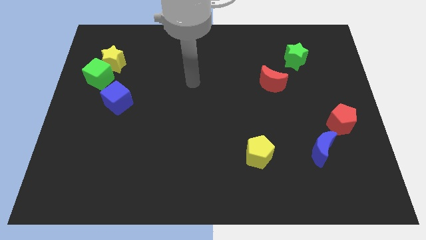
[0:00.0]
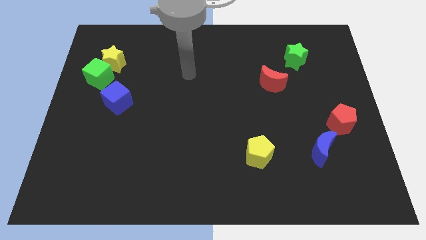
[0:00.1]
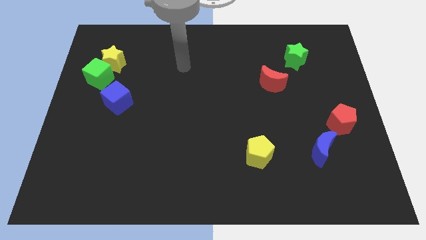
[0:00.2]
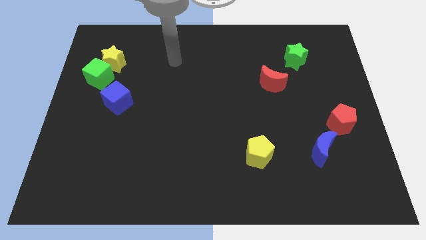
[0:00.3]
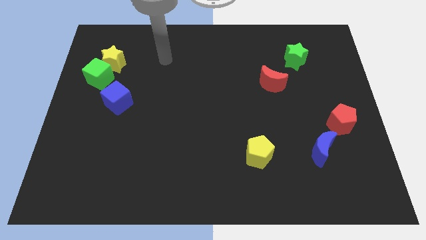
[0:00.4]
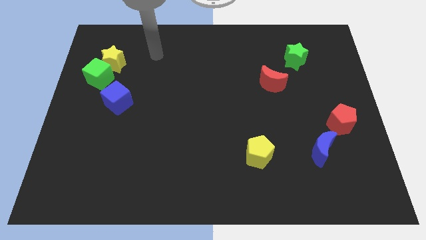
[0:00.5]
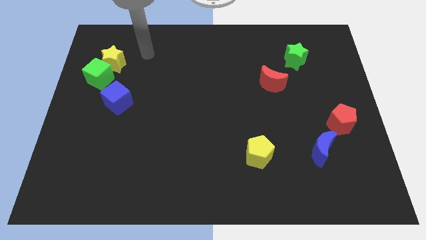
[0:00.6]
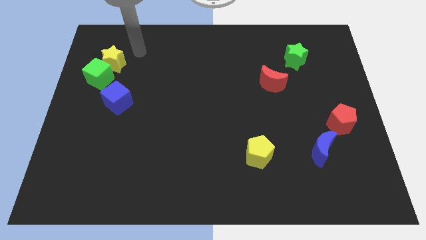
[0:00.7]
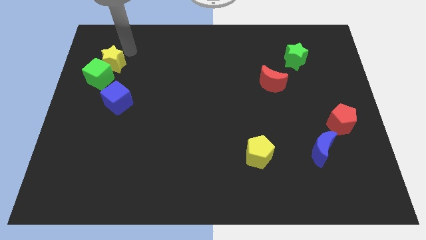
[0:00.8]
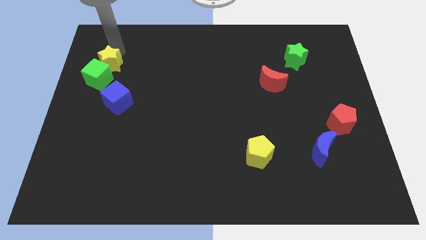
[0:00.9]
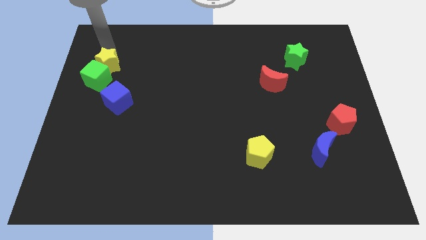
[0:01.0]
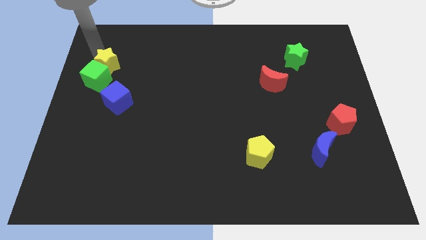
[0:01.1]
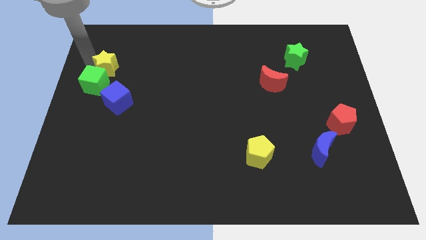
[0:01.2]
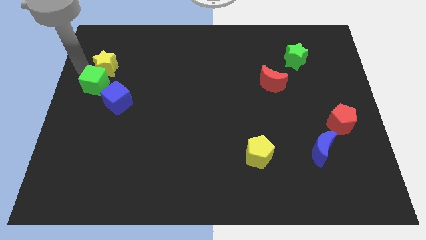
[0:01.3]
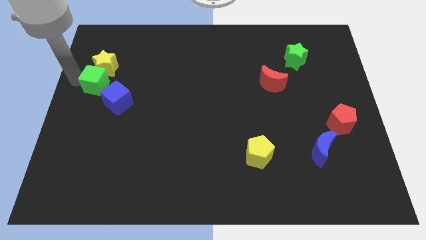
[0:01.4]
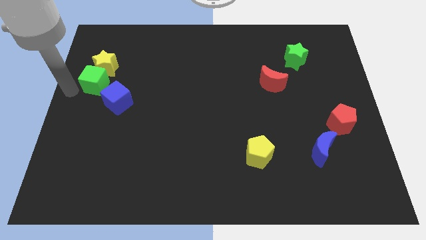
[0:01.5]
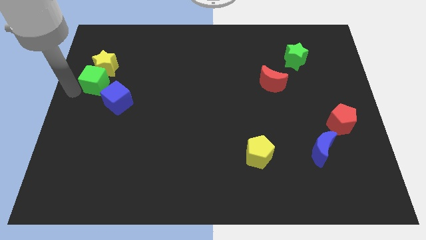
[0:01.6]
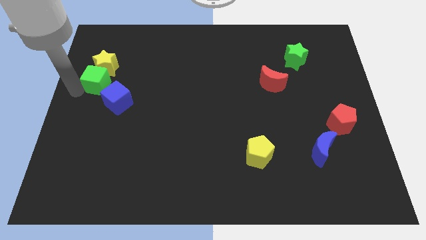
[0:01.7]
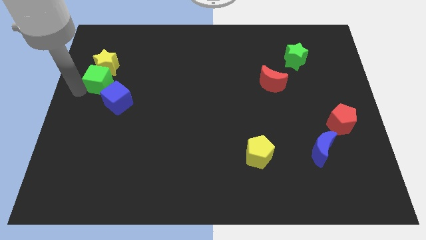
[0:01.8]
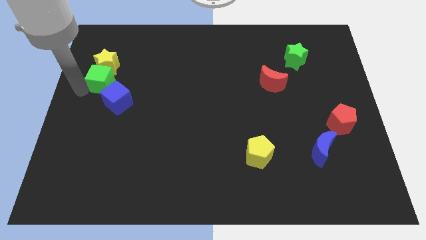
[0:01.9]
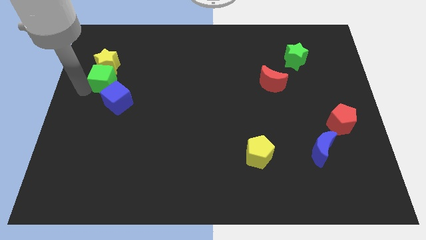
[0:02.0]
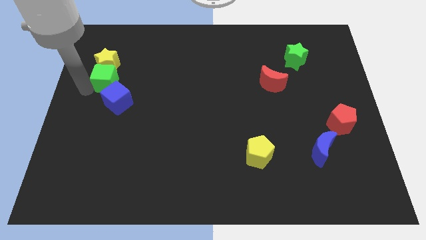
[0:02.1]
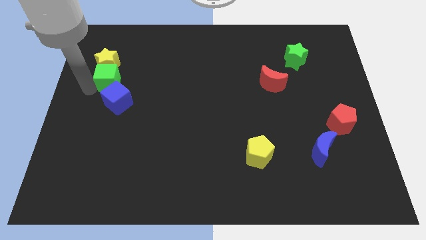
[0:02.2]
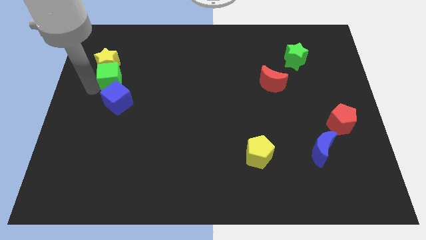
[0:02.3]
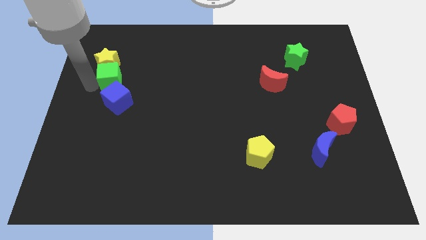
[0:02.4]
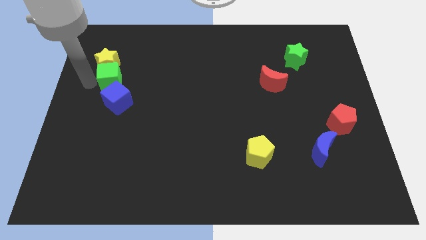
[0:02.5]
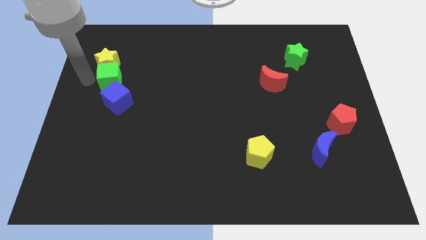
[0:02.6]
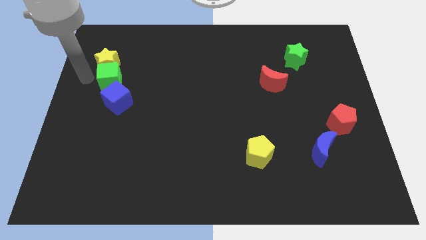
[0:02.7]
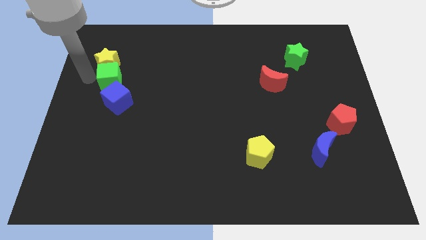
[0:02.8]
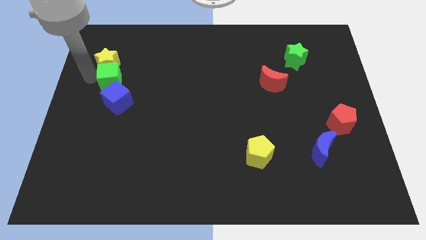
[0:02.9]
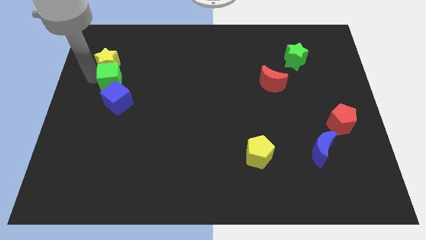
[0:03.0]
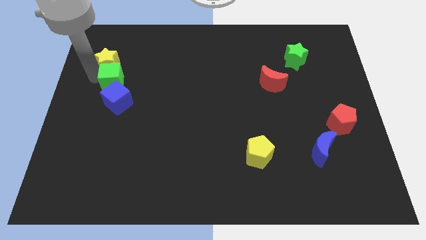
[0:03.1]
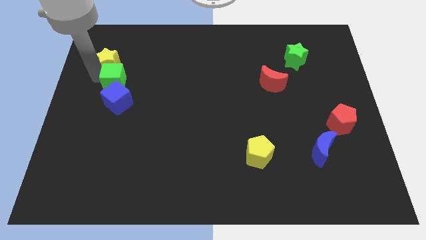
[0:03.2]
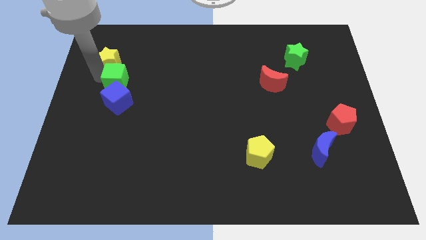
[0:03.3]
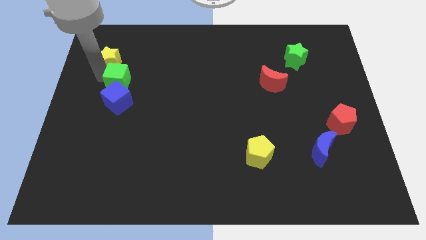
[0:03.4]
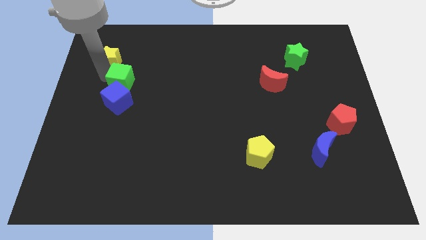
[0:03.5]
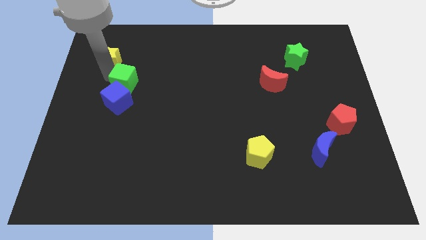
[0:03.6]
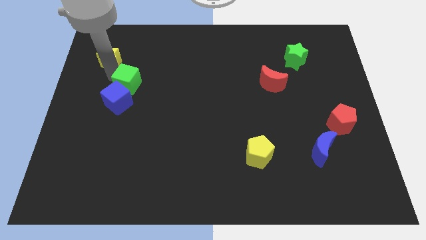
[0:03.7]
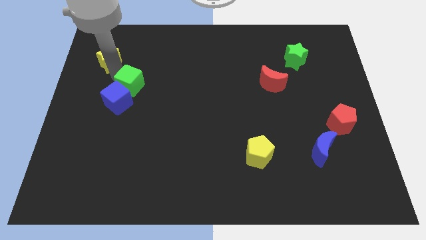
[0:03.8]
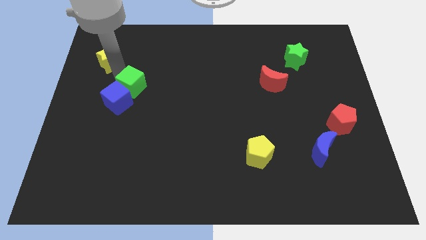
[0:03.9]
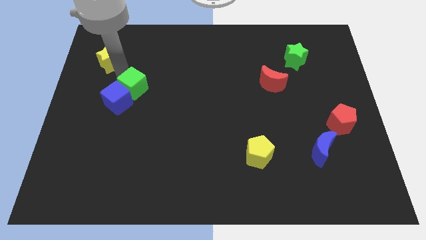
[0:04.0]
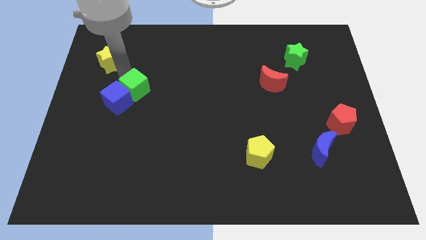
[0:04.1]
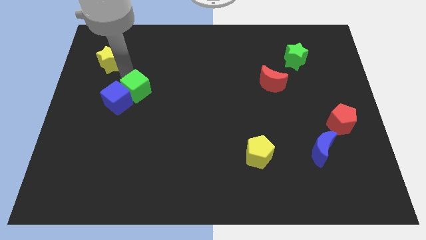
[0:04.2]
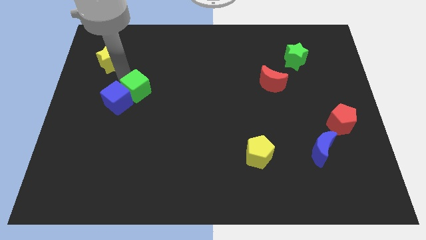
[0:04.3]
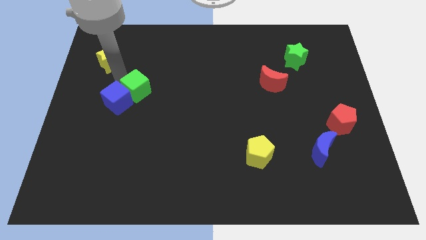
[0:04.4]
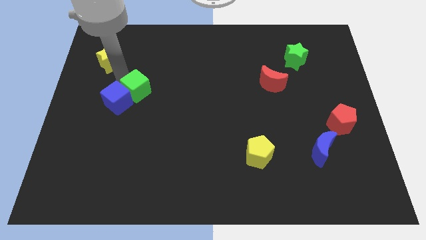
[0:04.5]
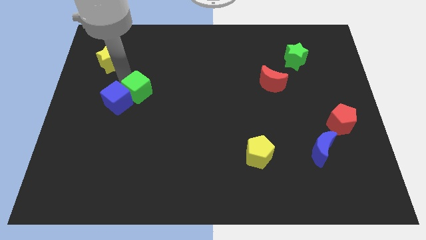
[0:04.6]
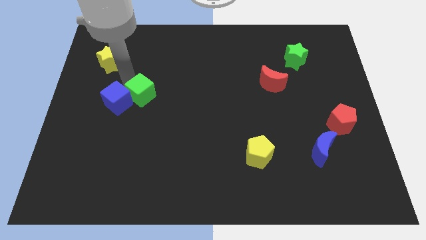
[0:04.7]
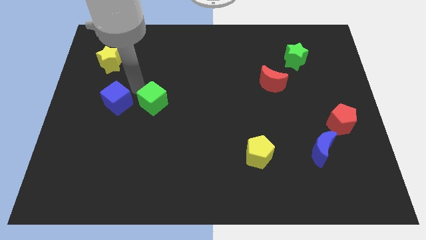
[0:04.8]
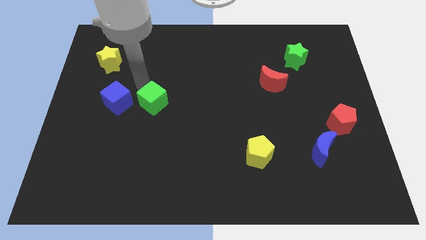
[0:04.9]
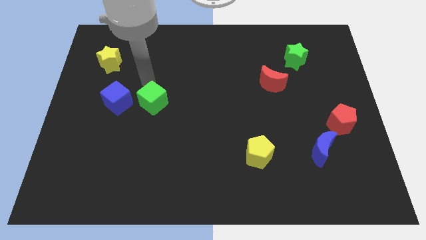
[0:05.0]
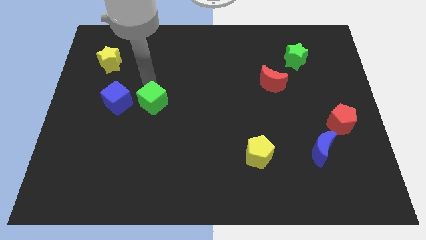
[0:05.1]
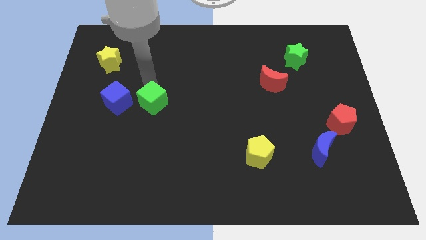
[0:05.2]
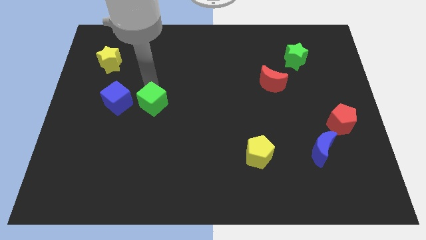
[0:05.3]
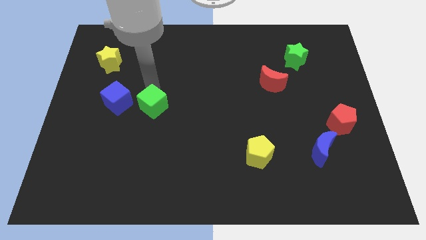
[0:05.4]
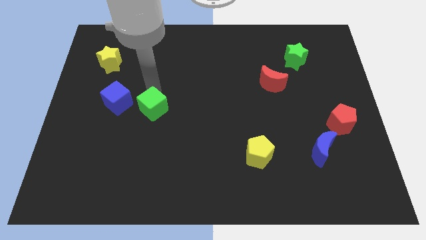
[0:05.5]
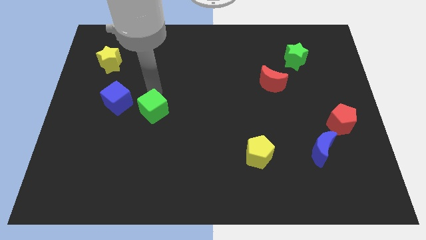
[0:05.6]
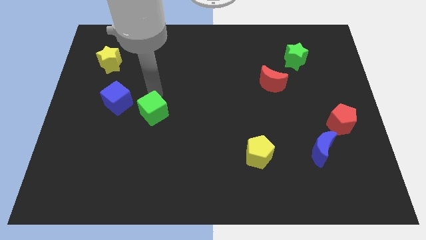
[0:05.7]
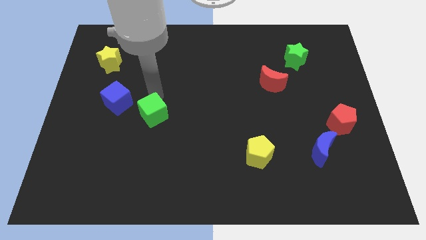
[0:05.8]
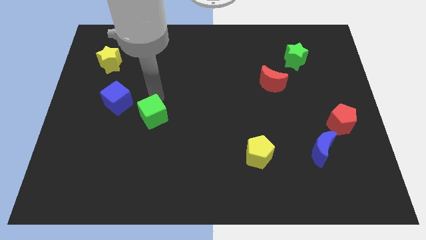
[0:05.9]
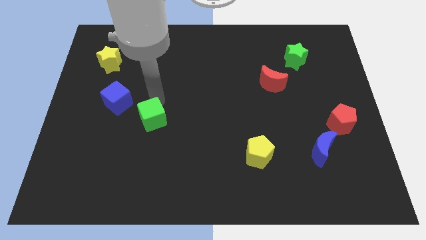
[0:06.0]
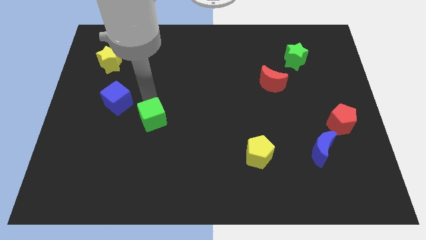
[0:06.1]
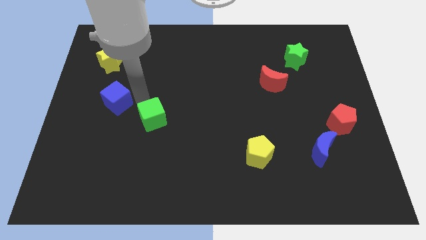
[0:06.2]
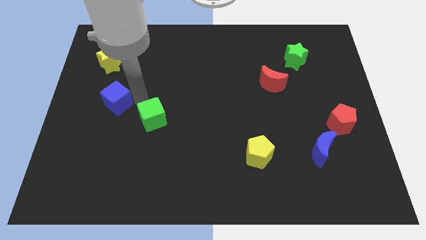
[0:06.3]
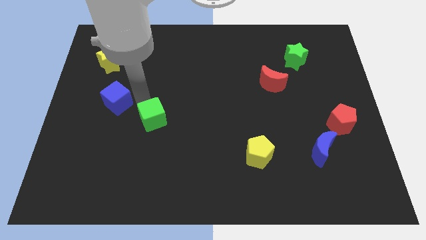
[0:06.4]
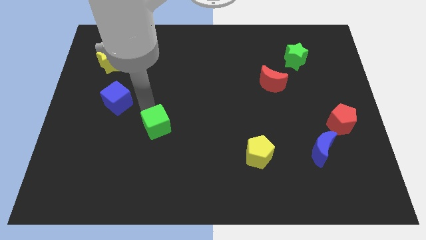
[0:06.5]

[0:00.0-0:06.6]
move the green cube diagonally down and right

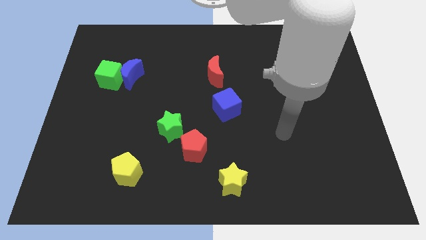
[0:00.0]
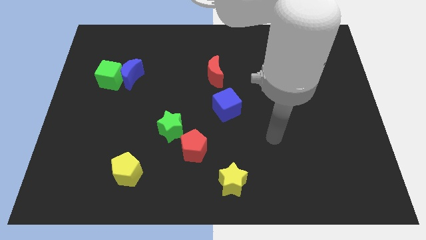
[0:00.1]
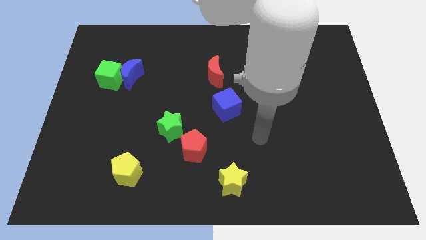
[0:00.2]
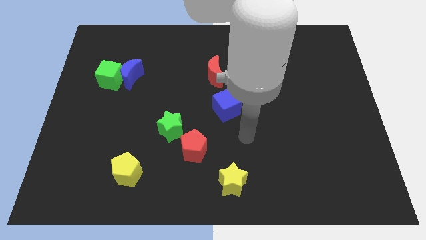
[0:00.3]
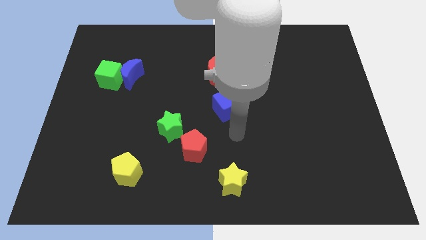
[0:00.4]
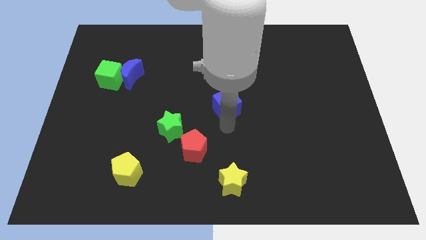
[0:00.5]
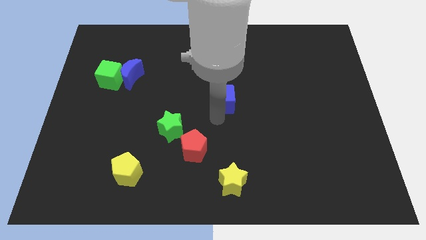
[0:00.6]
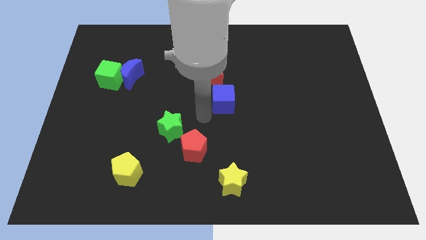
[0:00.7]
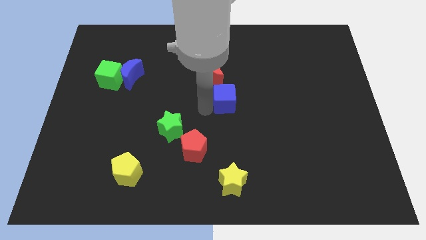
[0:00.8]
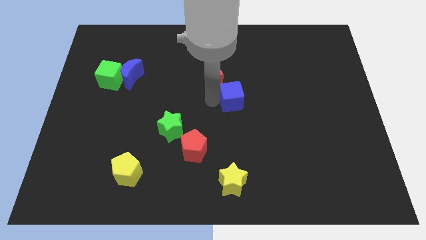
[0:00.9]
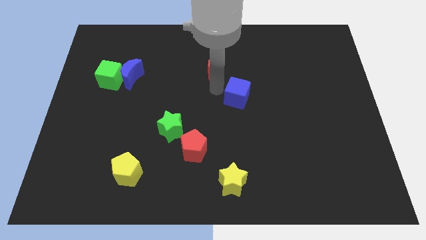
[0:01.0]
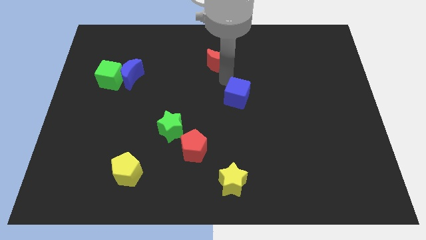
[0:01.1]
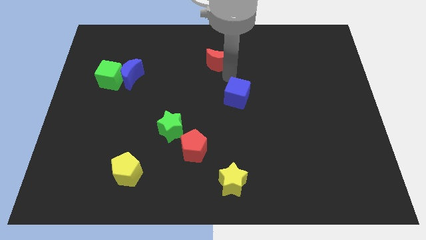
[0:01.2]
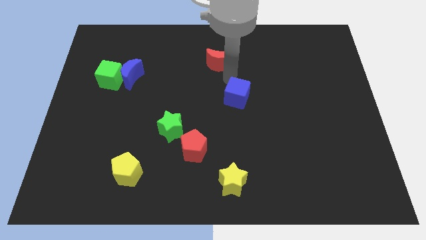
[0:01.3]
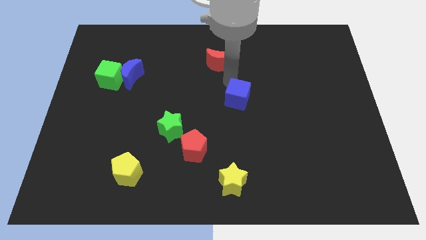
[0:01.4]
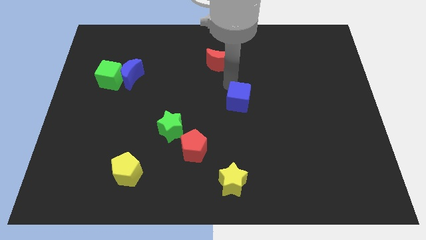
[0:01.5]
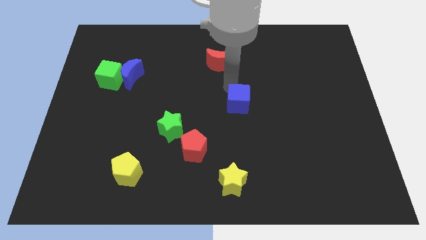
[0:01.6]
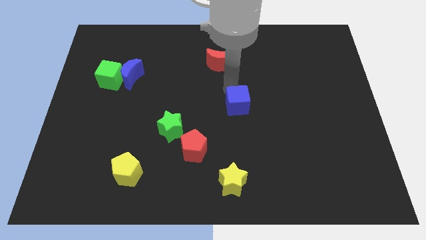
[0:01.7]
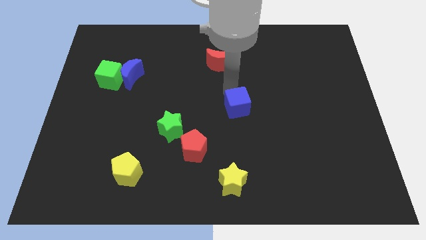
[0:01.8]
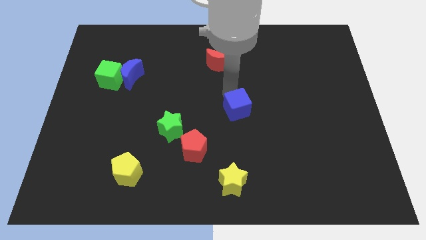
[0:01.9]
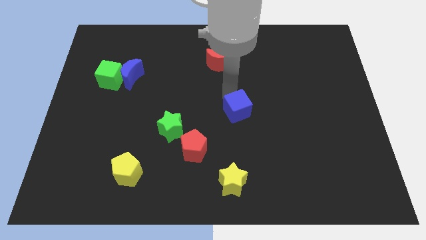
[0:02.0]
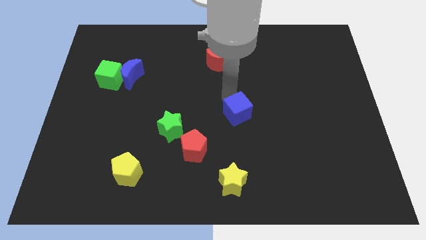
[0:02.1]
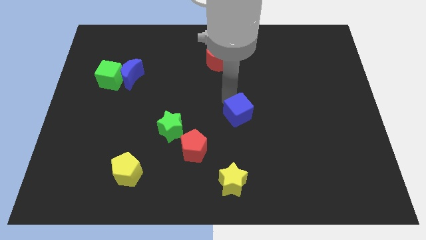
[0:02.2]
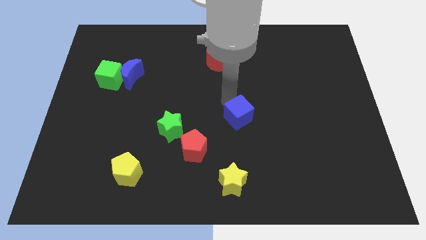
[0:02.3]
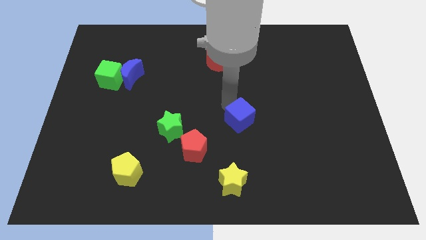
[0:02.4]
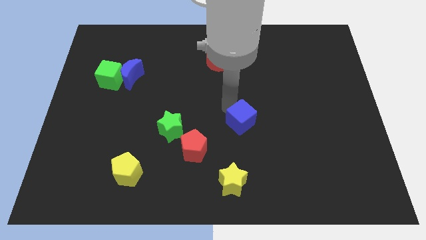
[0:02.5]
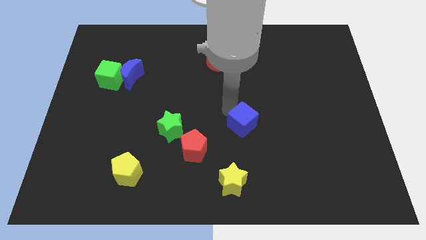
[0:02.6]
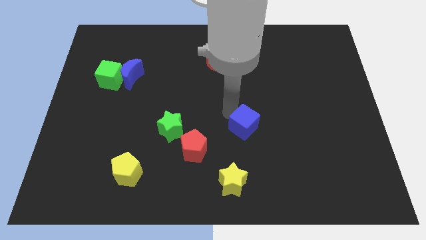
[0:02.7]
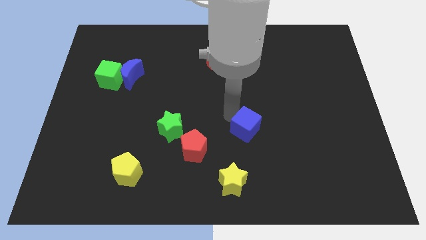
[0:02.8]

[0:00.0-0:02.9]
slide the blue cube a bit downwards and to the right
